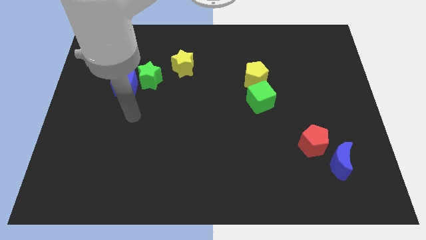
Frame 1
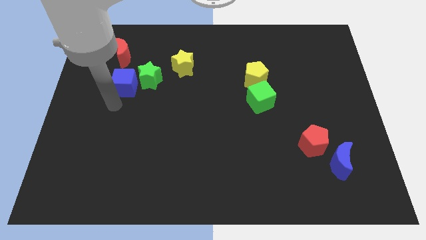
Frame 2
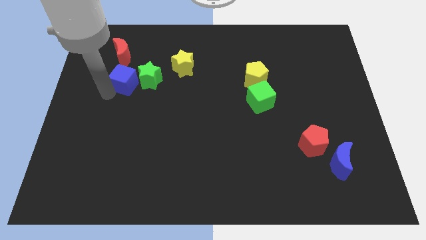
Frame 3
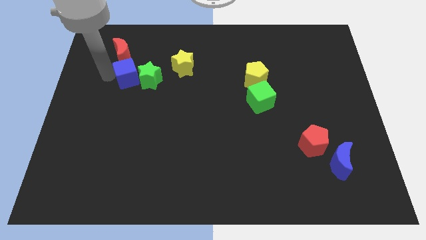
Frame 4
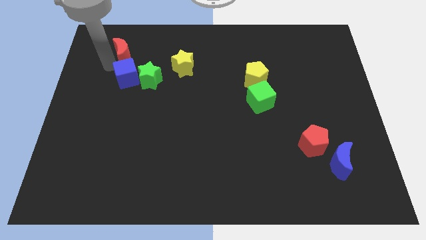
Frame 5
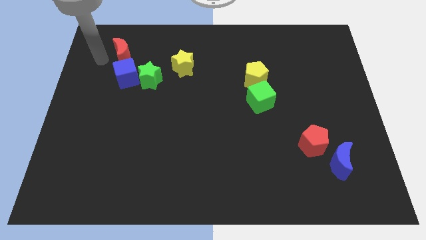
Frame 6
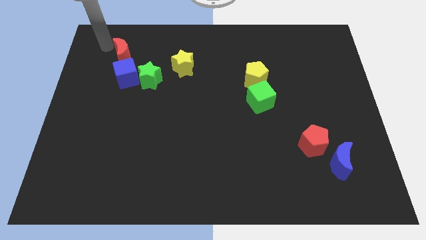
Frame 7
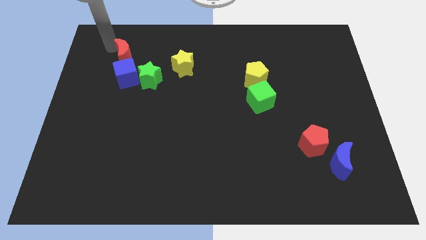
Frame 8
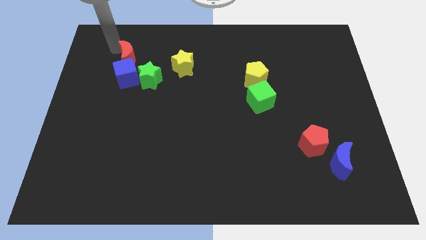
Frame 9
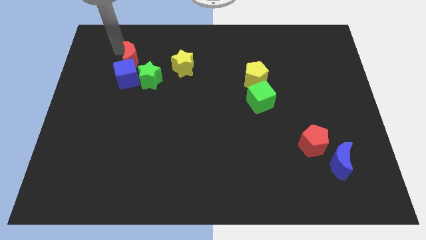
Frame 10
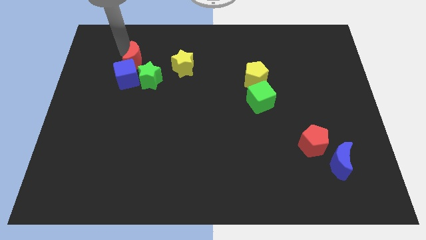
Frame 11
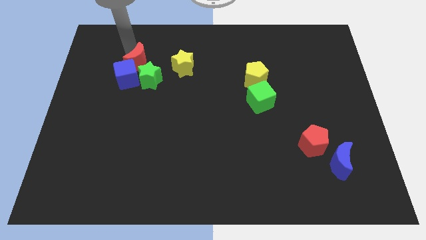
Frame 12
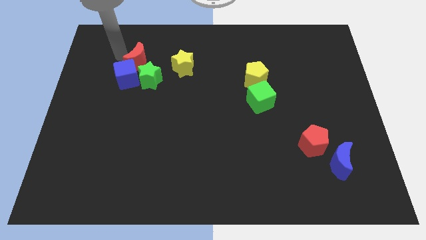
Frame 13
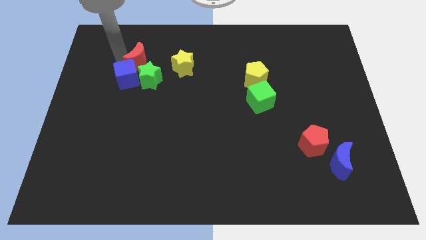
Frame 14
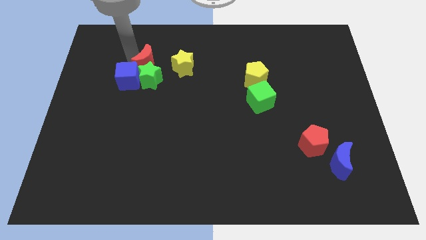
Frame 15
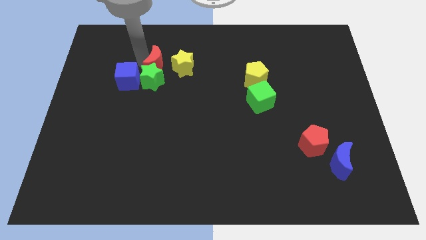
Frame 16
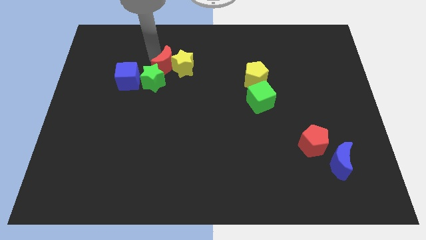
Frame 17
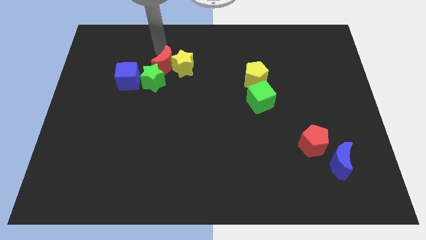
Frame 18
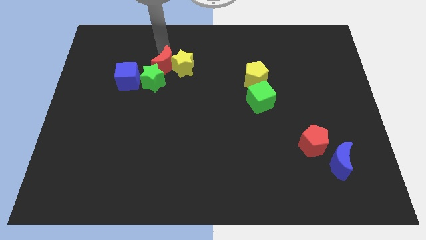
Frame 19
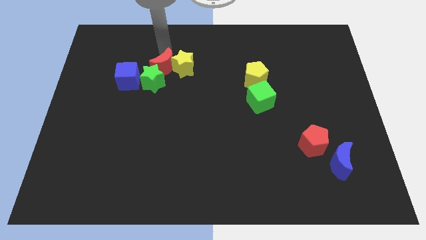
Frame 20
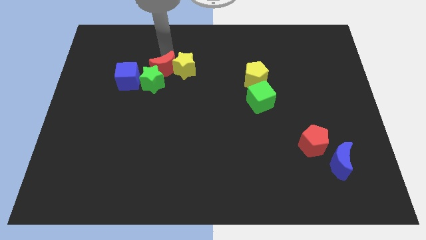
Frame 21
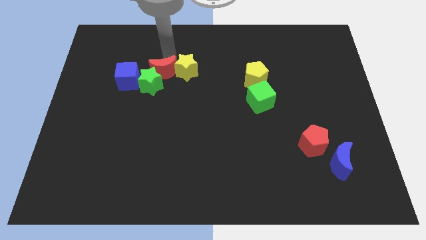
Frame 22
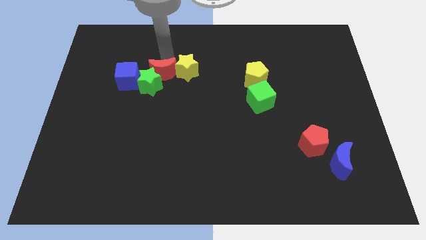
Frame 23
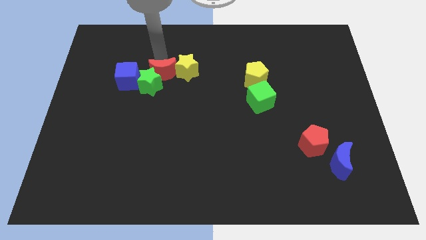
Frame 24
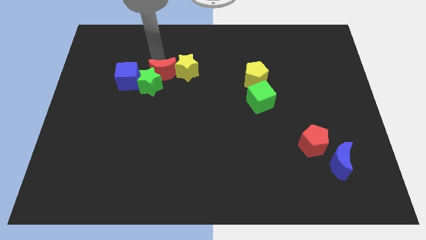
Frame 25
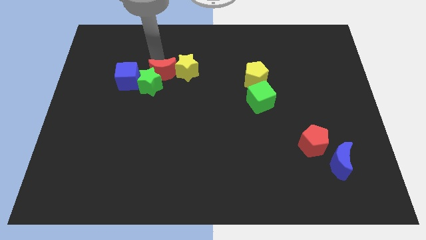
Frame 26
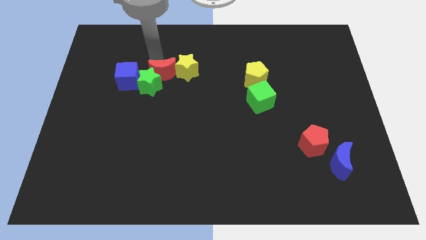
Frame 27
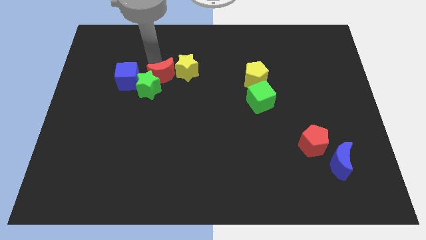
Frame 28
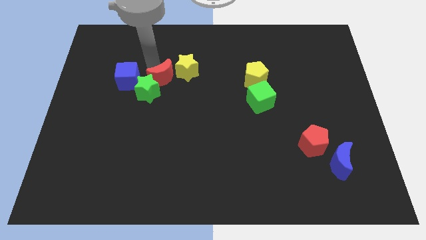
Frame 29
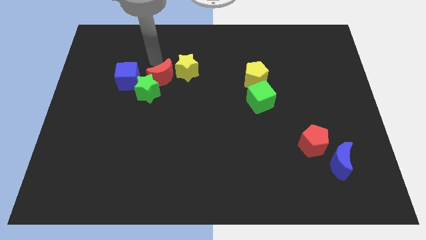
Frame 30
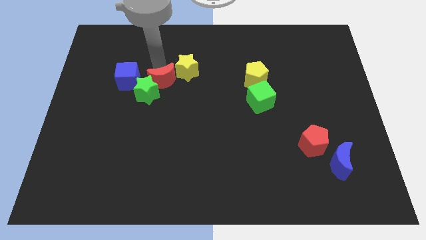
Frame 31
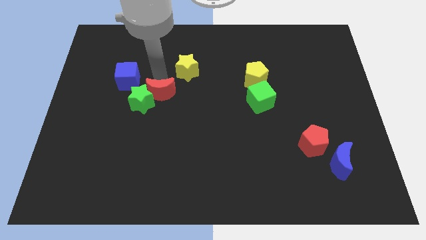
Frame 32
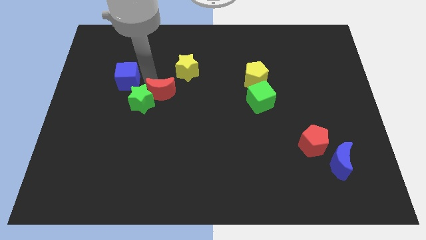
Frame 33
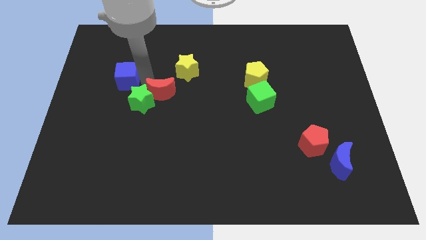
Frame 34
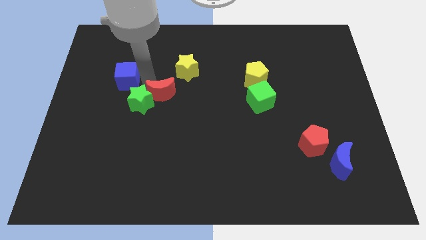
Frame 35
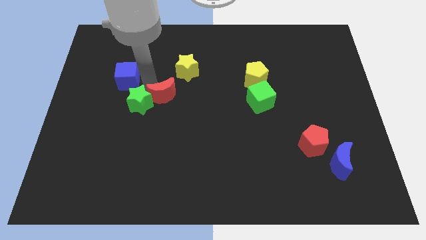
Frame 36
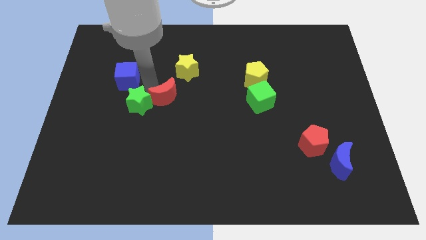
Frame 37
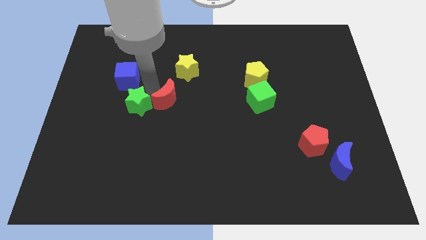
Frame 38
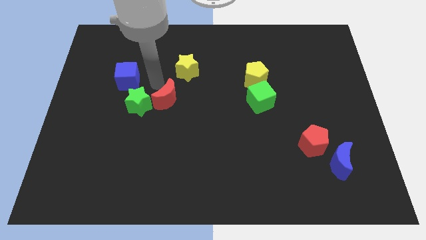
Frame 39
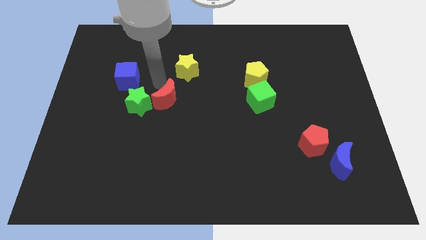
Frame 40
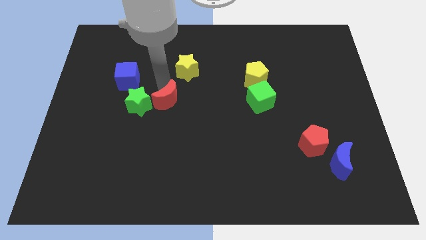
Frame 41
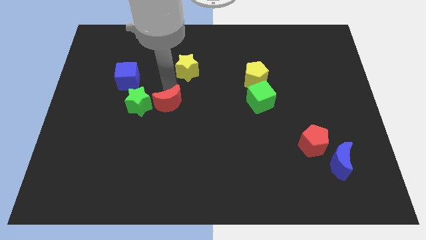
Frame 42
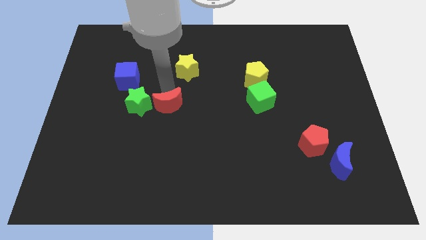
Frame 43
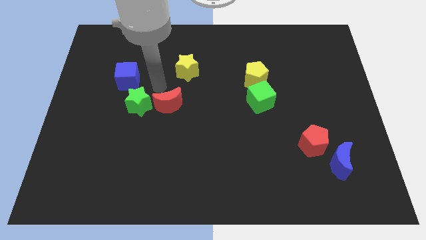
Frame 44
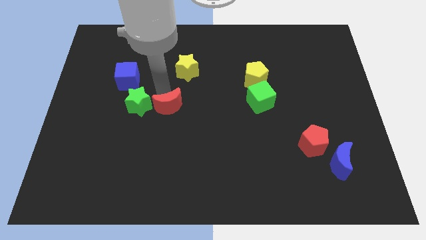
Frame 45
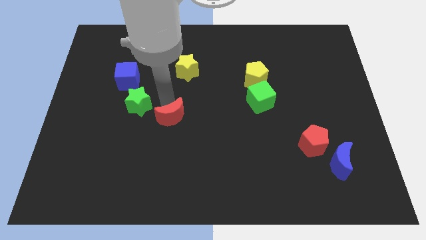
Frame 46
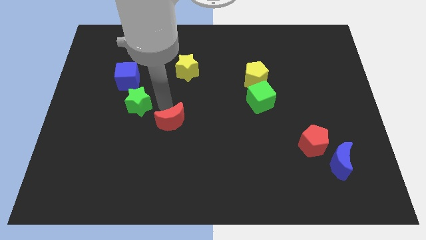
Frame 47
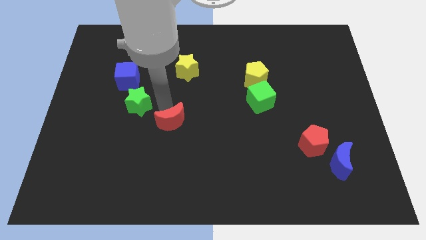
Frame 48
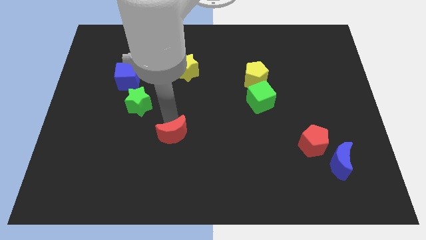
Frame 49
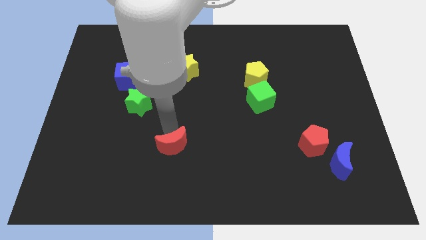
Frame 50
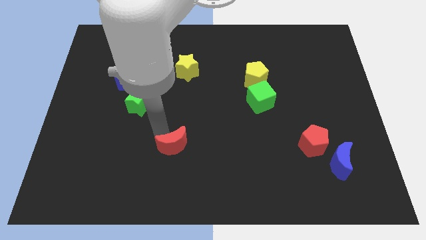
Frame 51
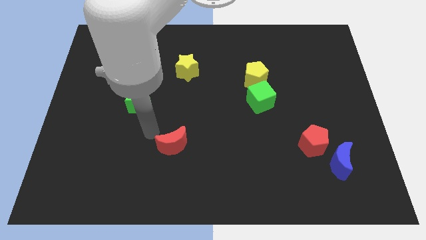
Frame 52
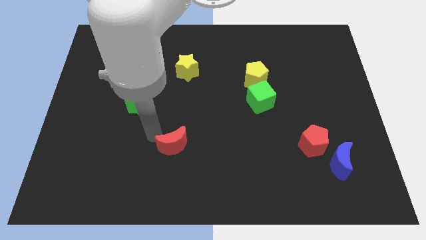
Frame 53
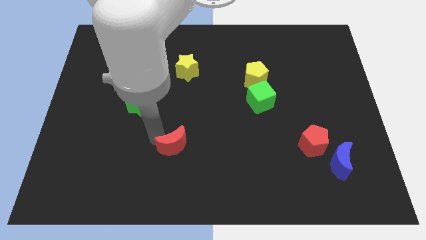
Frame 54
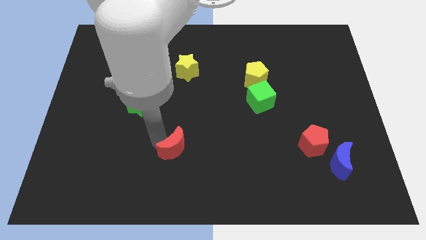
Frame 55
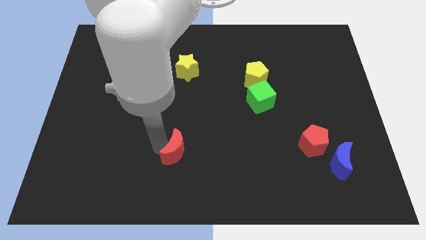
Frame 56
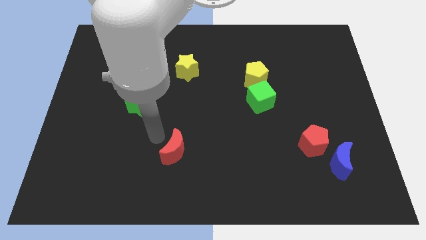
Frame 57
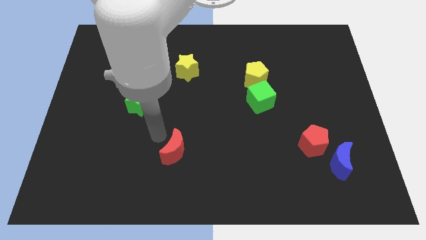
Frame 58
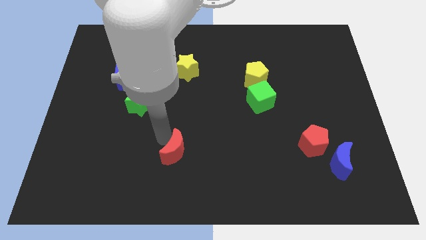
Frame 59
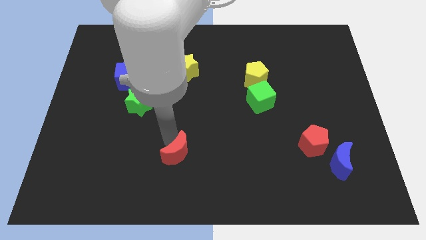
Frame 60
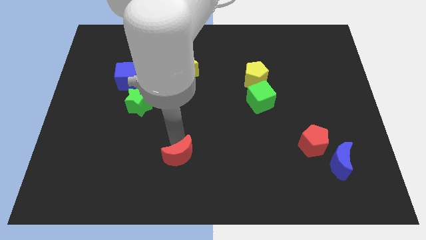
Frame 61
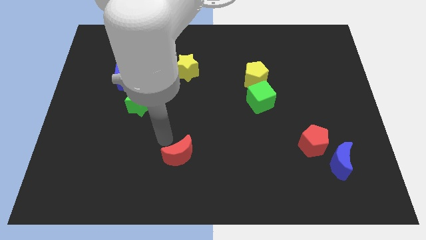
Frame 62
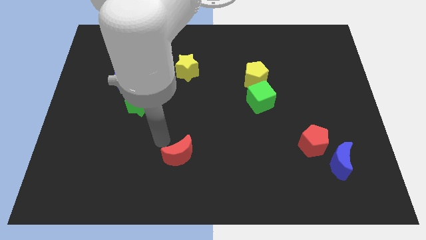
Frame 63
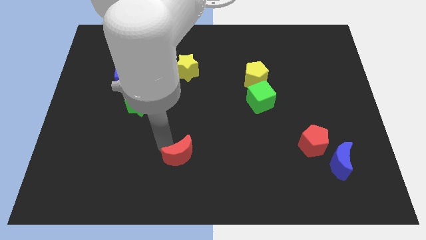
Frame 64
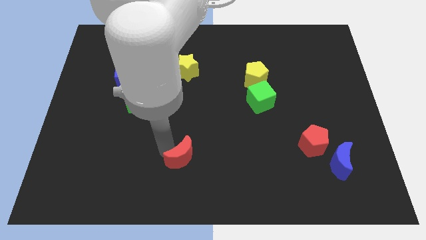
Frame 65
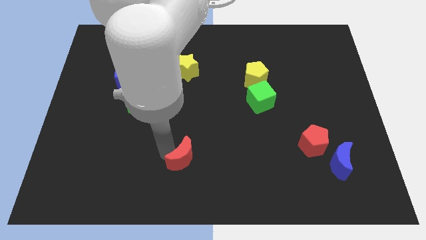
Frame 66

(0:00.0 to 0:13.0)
move the red moon to the bottom side

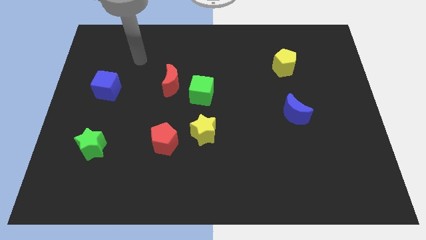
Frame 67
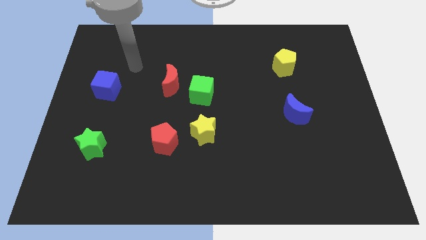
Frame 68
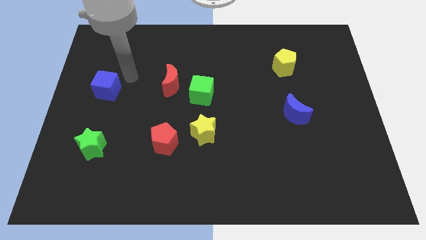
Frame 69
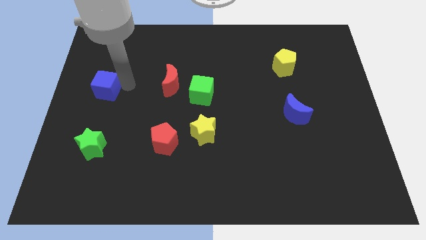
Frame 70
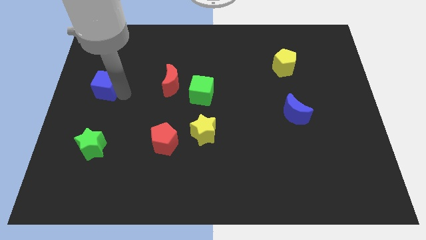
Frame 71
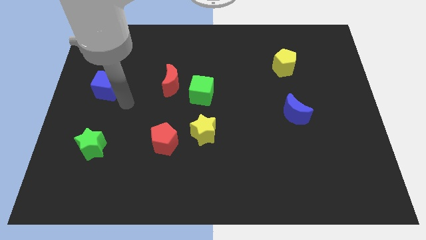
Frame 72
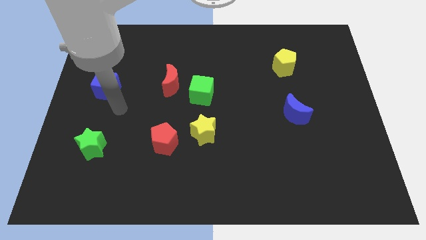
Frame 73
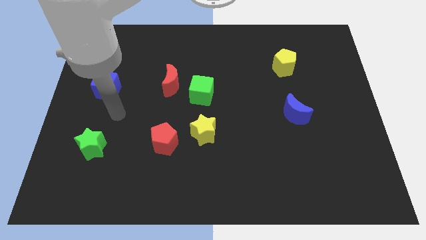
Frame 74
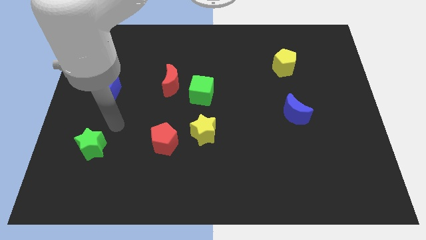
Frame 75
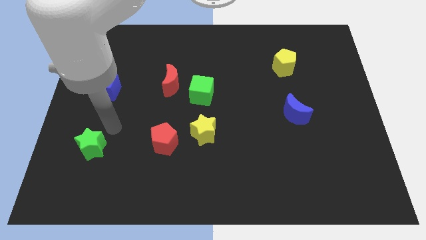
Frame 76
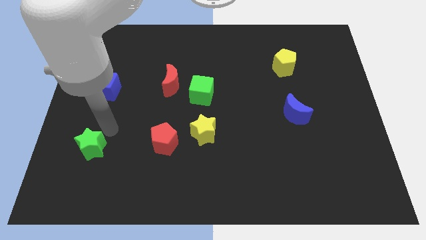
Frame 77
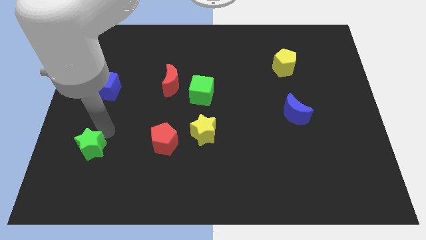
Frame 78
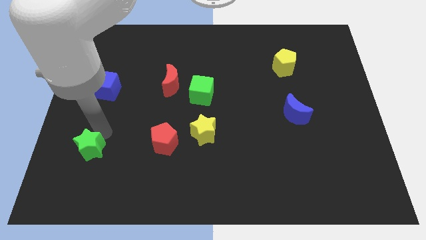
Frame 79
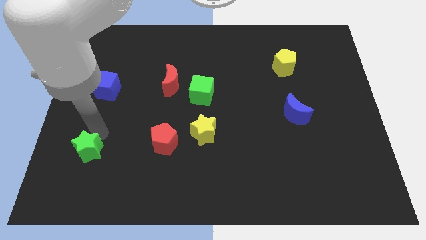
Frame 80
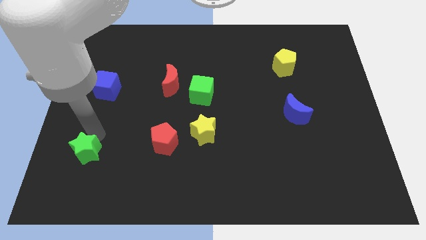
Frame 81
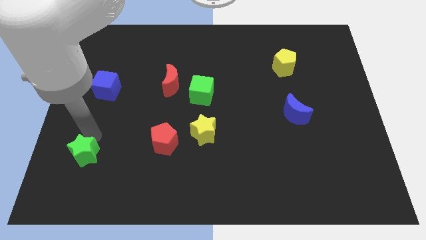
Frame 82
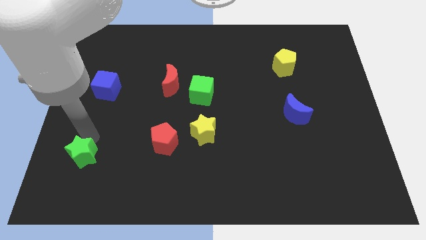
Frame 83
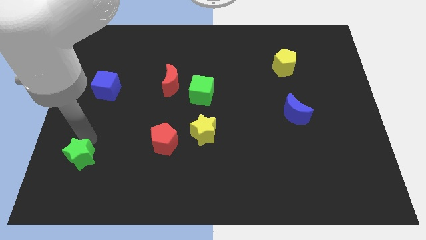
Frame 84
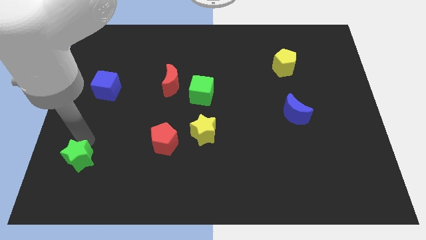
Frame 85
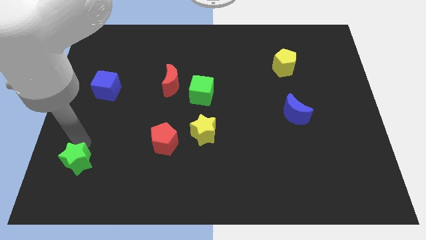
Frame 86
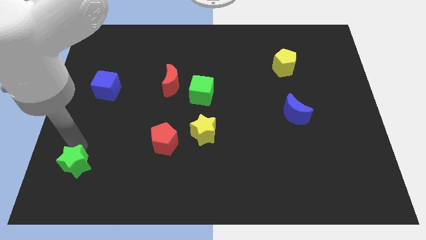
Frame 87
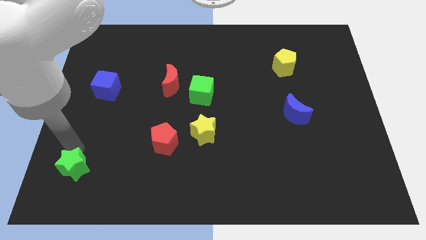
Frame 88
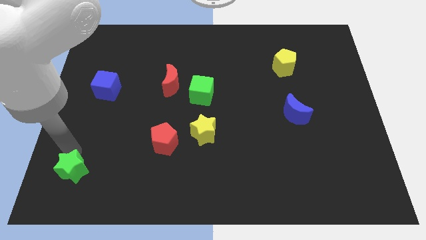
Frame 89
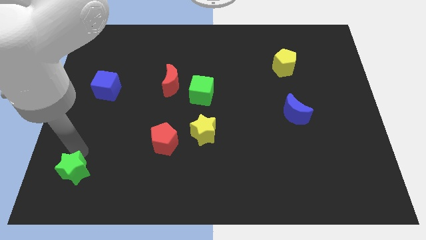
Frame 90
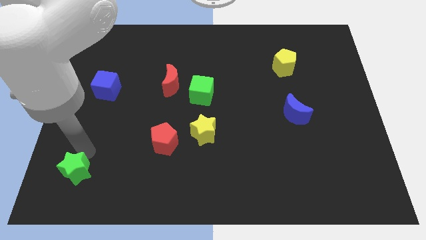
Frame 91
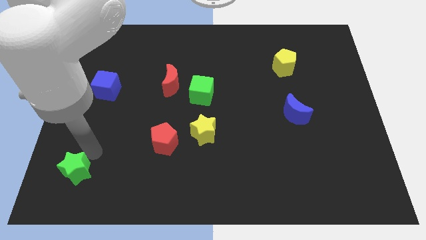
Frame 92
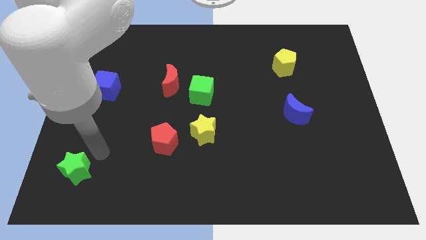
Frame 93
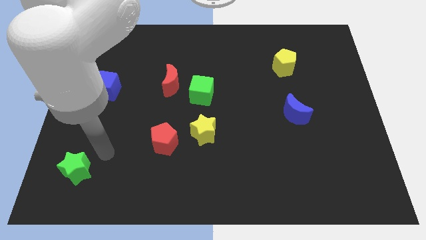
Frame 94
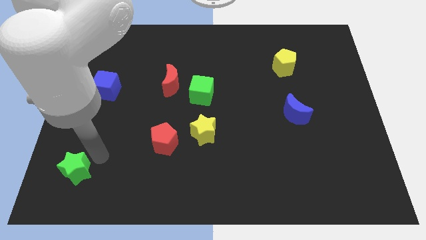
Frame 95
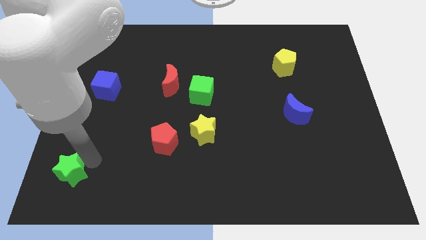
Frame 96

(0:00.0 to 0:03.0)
push the green star to the bottom left
